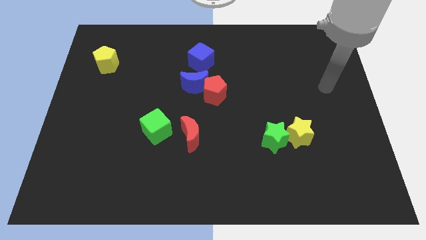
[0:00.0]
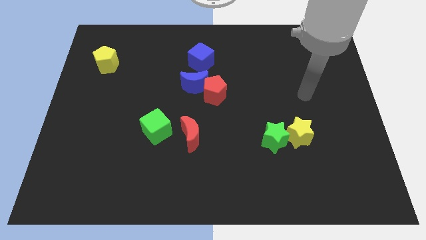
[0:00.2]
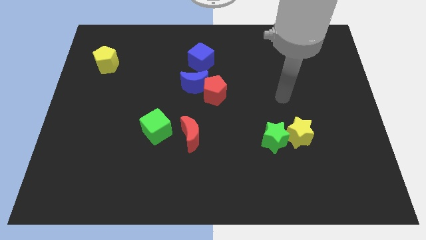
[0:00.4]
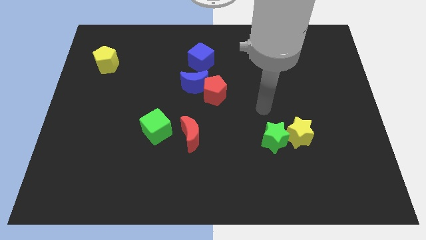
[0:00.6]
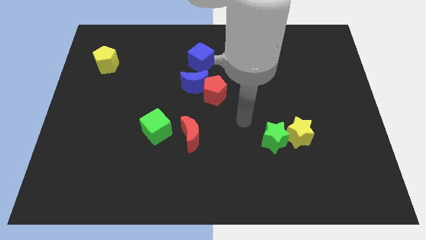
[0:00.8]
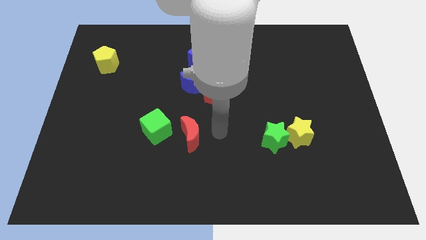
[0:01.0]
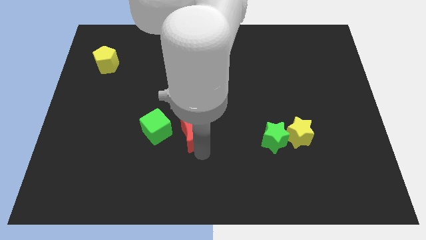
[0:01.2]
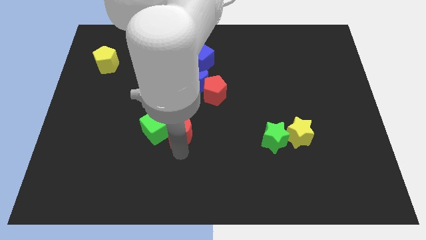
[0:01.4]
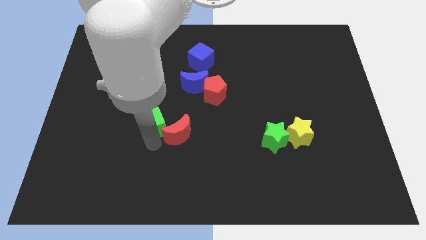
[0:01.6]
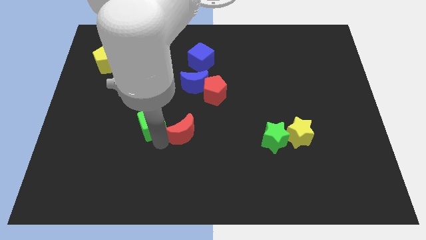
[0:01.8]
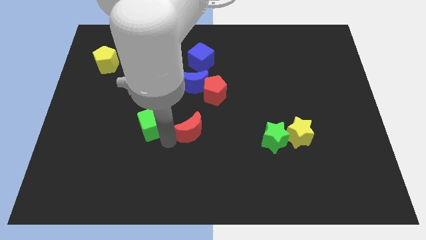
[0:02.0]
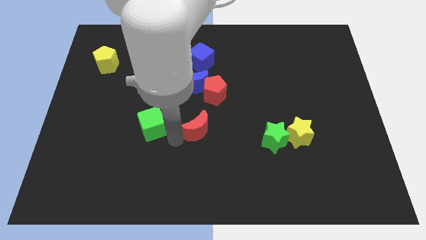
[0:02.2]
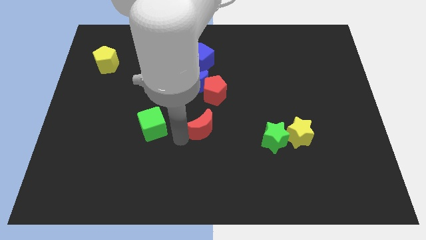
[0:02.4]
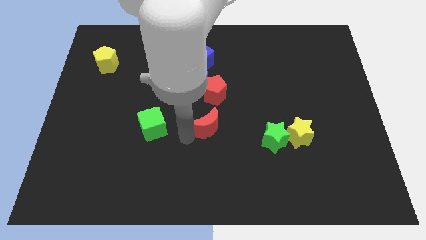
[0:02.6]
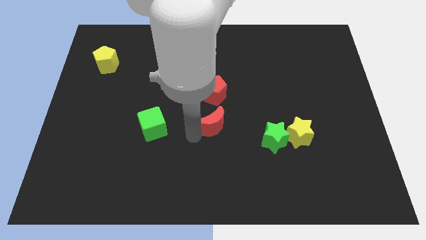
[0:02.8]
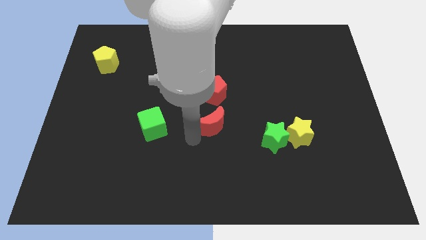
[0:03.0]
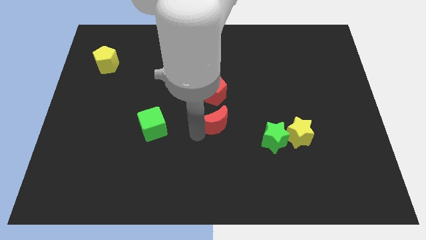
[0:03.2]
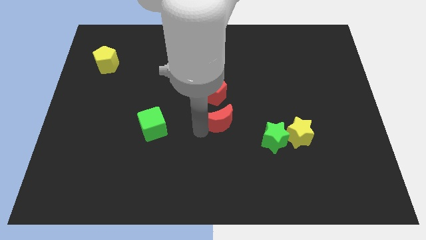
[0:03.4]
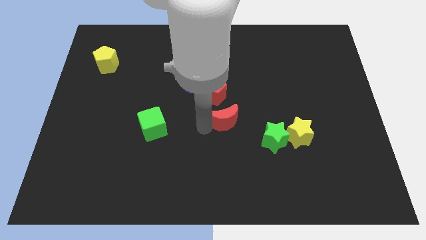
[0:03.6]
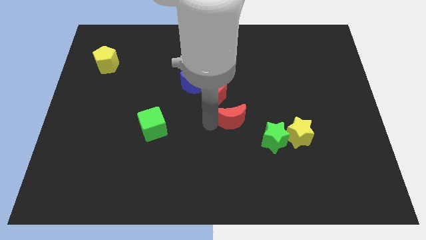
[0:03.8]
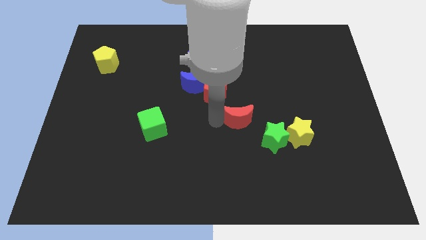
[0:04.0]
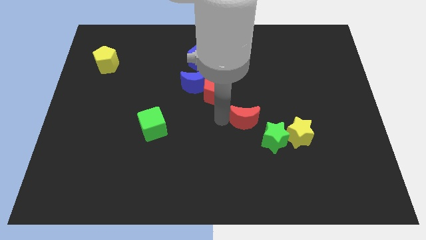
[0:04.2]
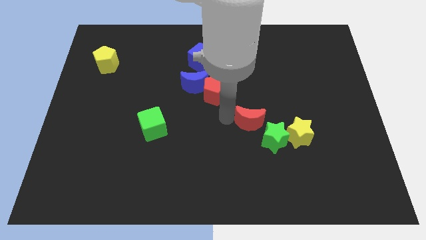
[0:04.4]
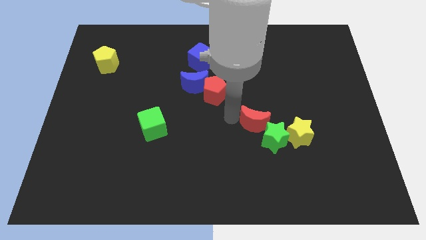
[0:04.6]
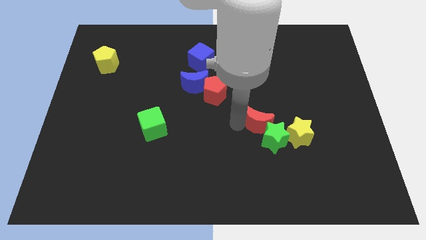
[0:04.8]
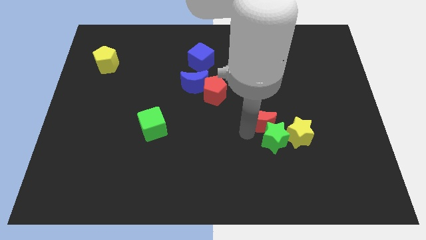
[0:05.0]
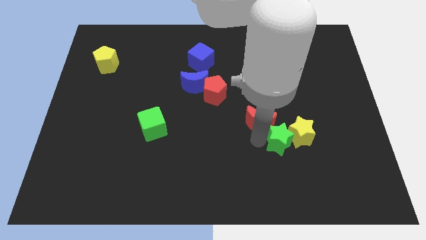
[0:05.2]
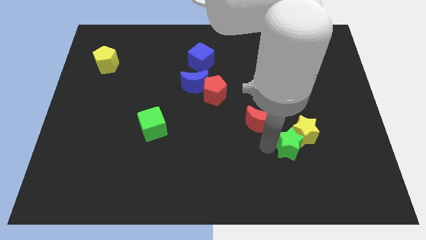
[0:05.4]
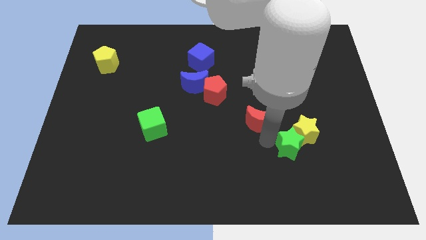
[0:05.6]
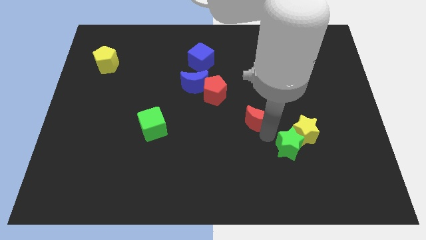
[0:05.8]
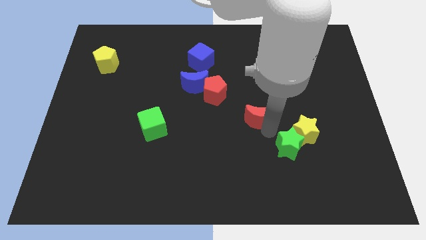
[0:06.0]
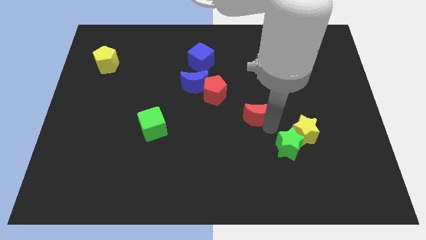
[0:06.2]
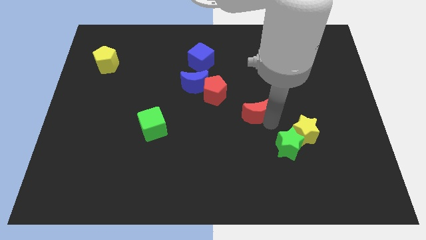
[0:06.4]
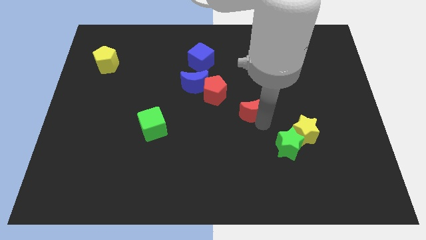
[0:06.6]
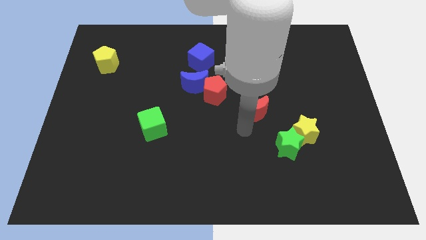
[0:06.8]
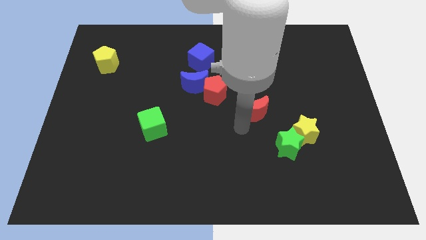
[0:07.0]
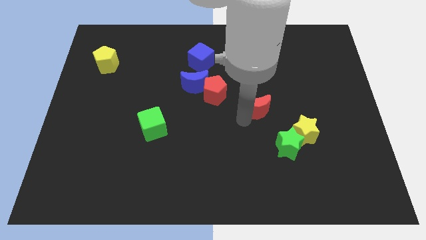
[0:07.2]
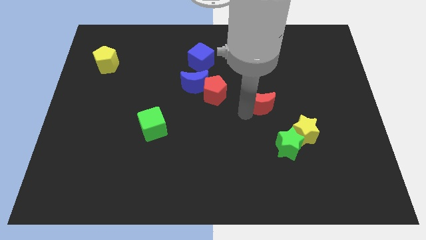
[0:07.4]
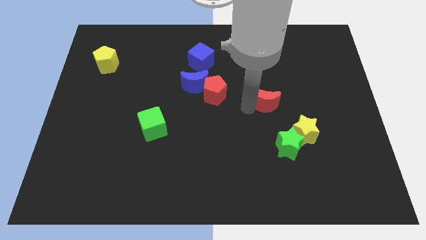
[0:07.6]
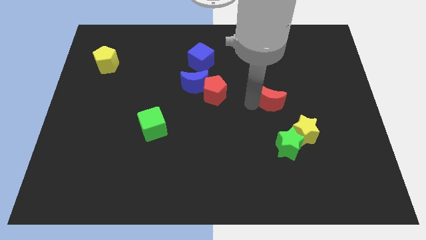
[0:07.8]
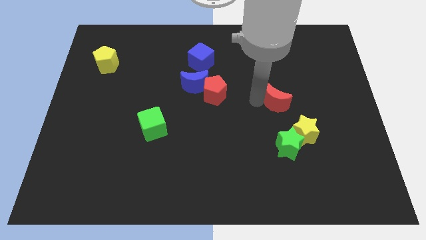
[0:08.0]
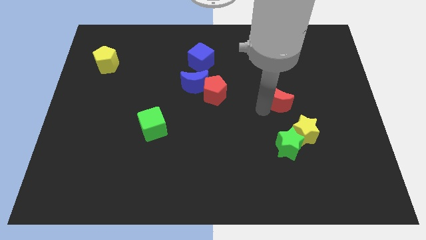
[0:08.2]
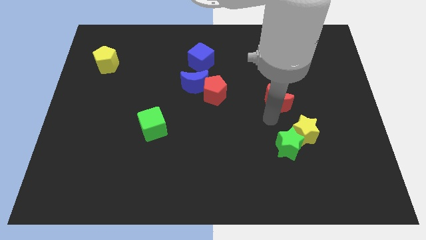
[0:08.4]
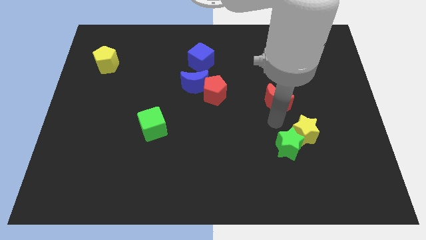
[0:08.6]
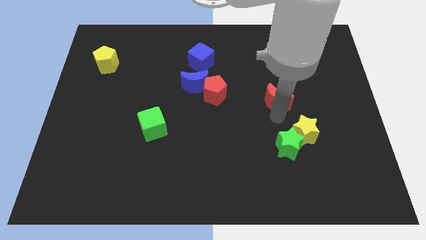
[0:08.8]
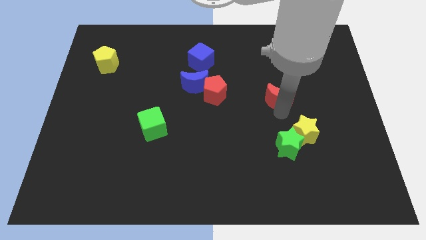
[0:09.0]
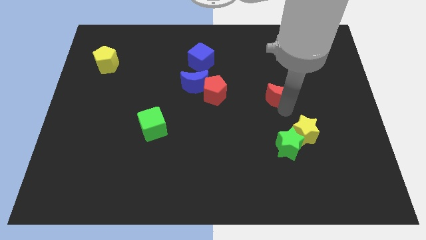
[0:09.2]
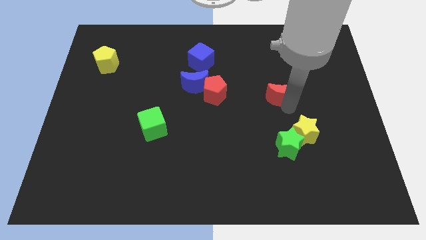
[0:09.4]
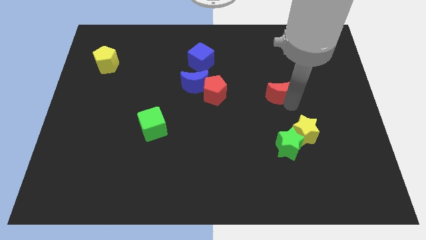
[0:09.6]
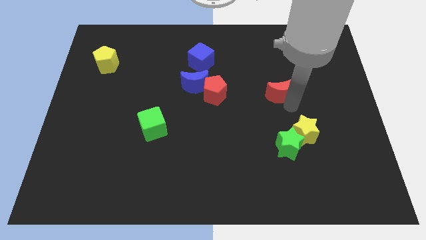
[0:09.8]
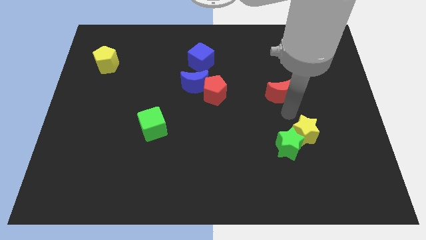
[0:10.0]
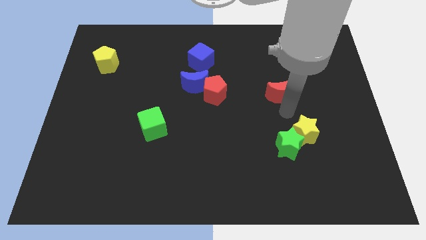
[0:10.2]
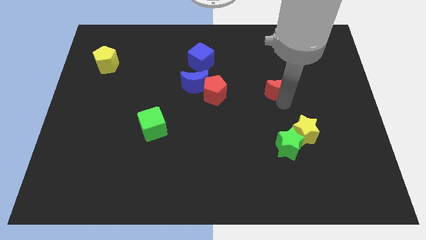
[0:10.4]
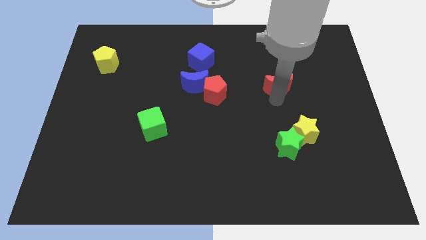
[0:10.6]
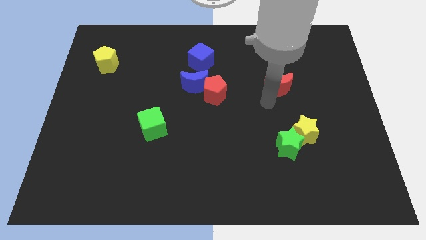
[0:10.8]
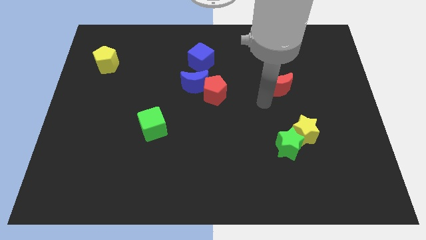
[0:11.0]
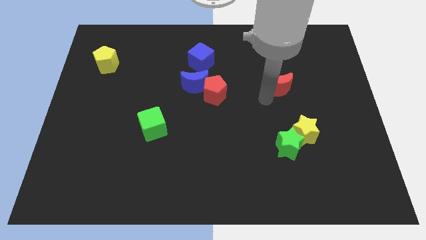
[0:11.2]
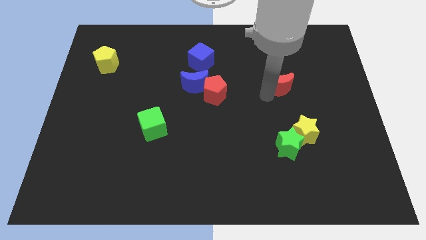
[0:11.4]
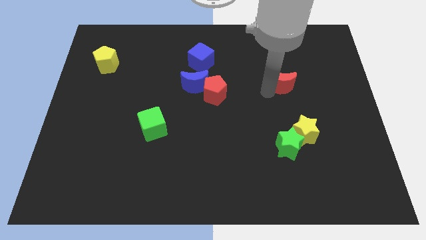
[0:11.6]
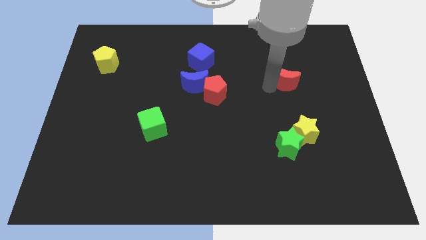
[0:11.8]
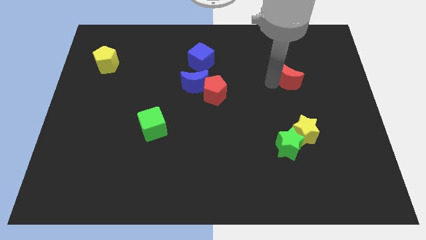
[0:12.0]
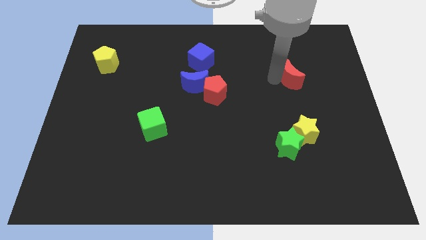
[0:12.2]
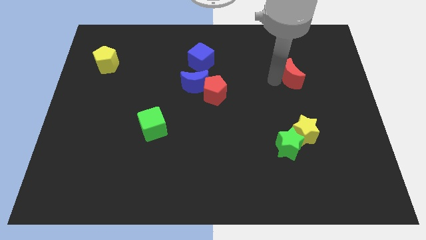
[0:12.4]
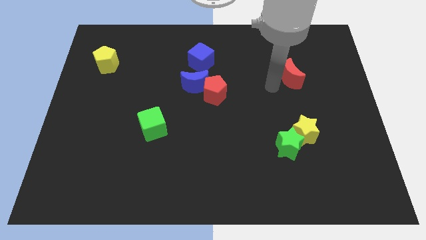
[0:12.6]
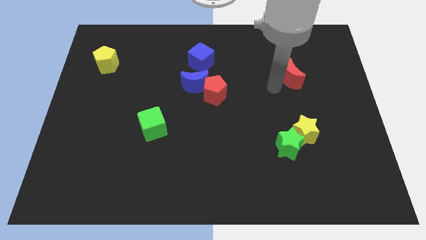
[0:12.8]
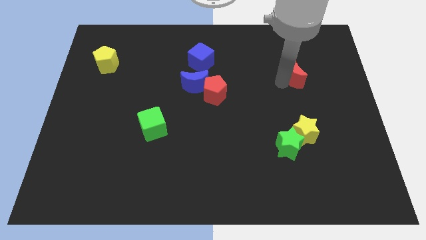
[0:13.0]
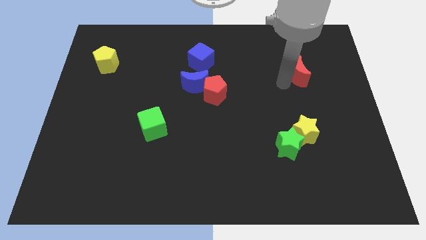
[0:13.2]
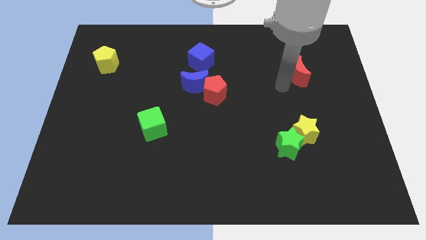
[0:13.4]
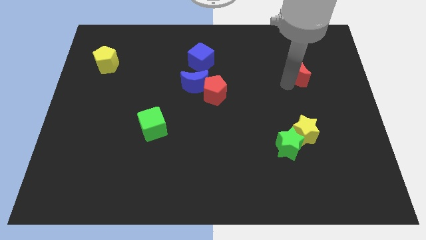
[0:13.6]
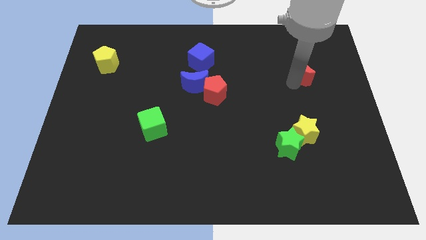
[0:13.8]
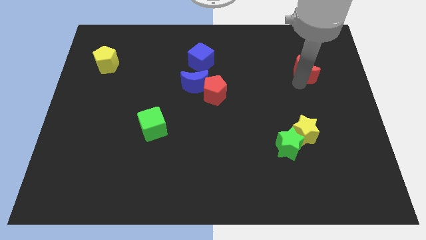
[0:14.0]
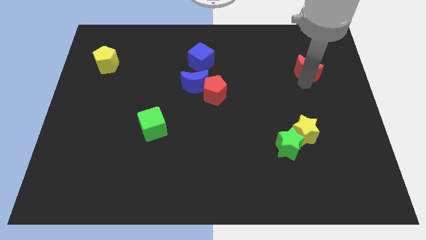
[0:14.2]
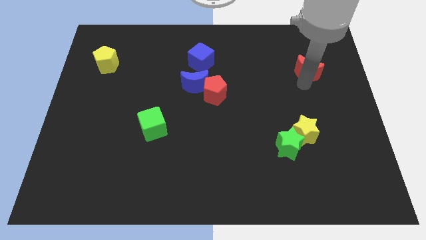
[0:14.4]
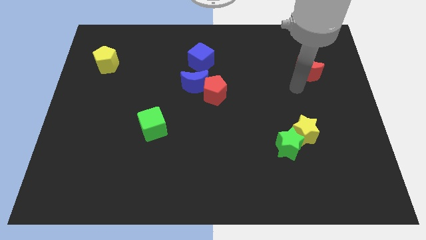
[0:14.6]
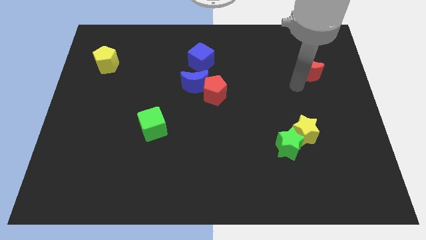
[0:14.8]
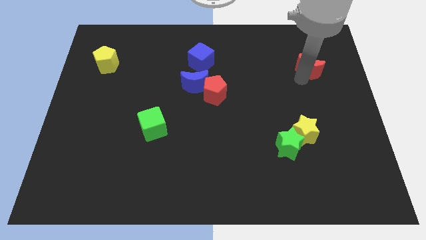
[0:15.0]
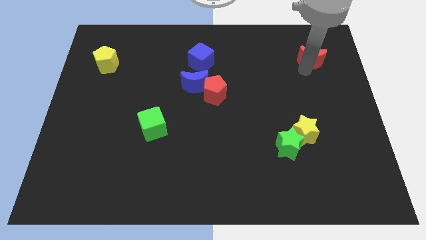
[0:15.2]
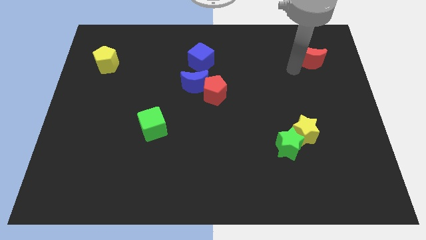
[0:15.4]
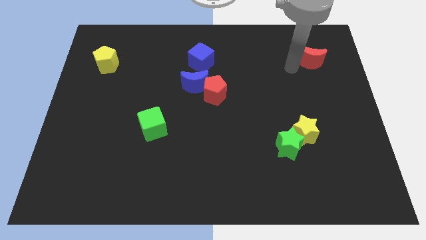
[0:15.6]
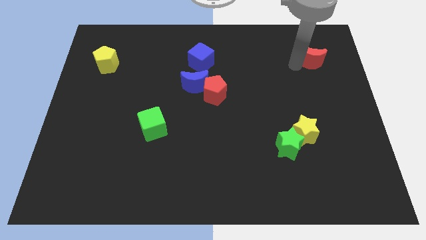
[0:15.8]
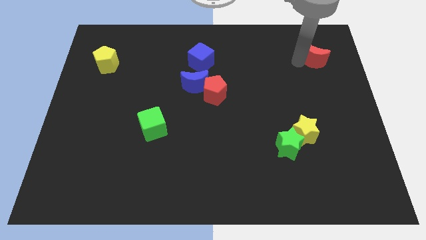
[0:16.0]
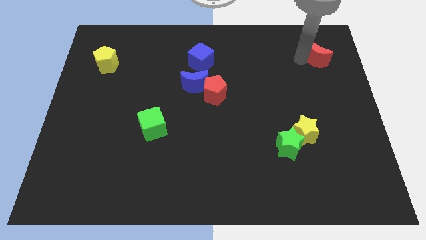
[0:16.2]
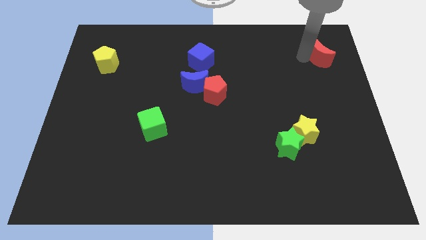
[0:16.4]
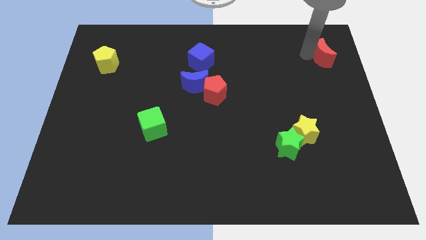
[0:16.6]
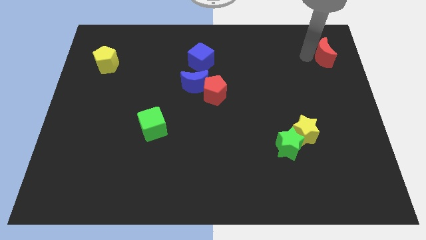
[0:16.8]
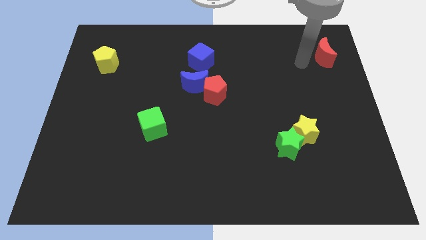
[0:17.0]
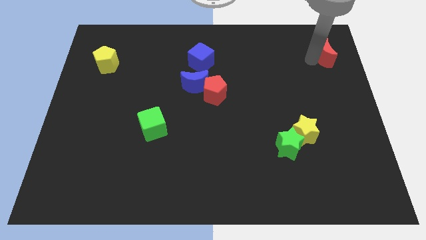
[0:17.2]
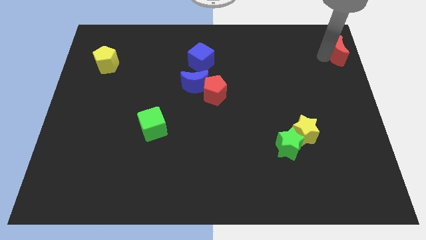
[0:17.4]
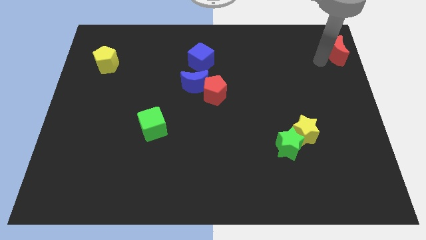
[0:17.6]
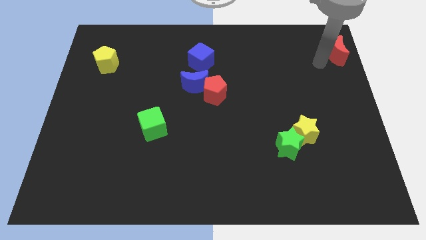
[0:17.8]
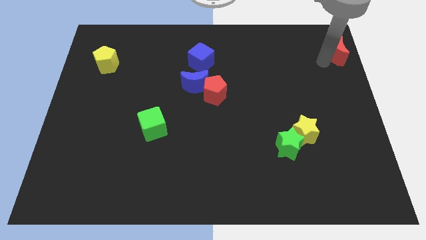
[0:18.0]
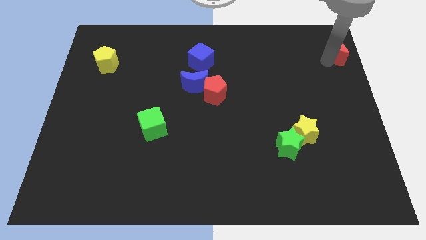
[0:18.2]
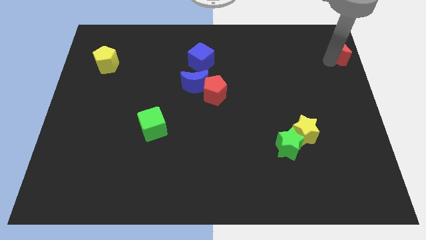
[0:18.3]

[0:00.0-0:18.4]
slide the red moon to the top right
